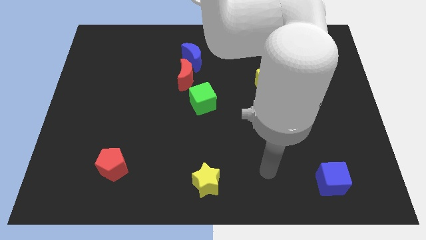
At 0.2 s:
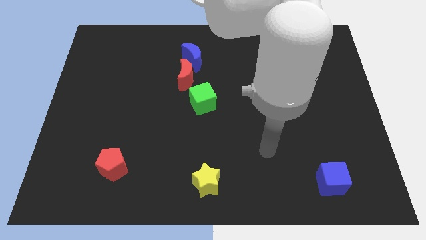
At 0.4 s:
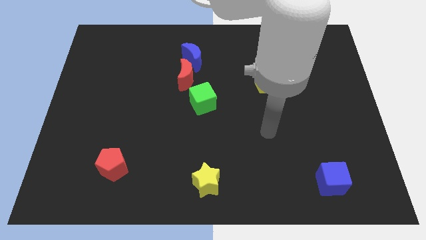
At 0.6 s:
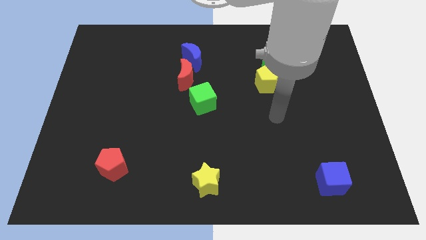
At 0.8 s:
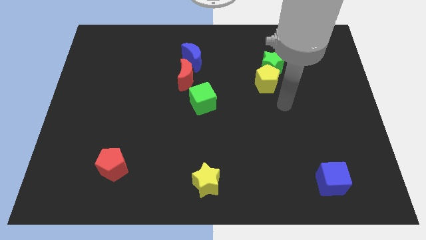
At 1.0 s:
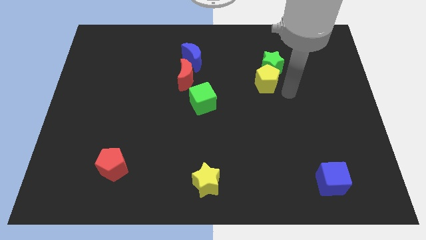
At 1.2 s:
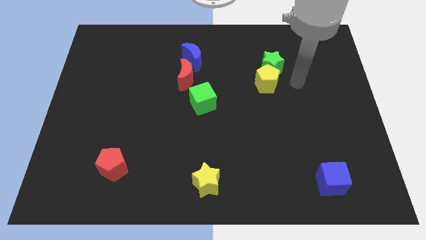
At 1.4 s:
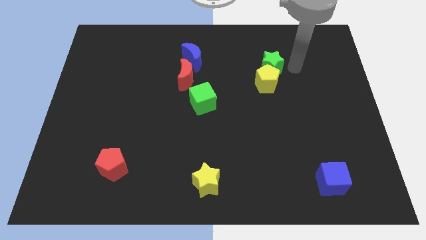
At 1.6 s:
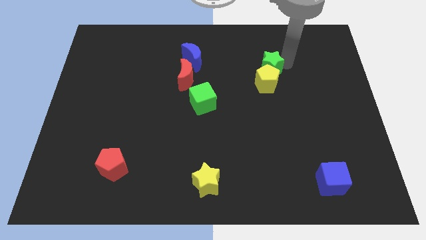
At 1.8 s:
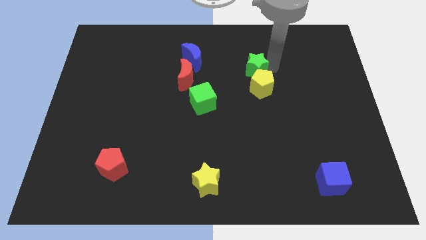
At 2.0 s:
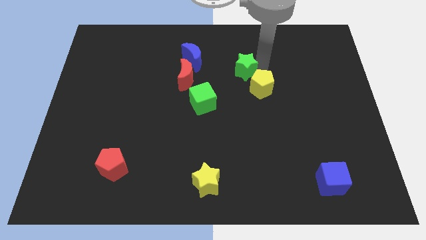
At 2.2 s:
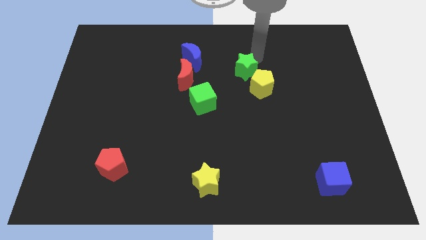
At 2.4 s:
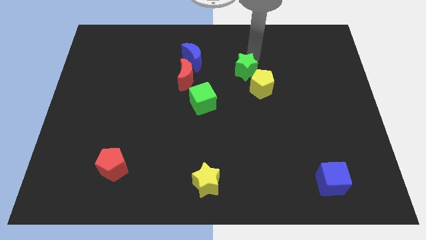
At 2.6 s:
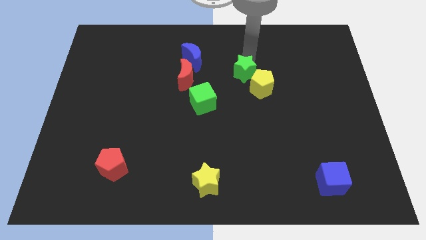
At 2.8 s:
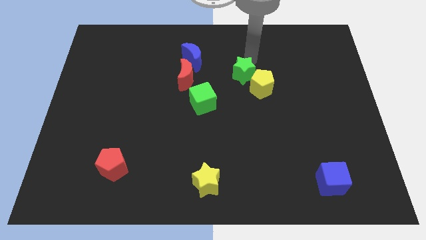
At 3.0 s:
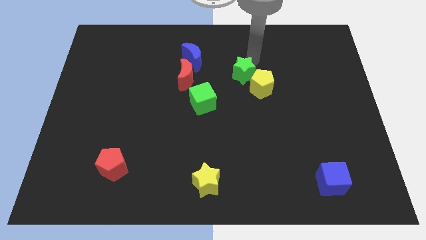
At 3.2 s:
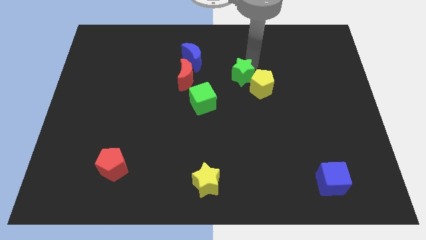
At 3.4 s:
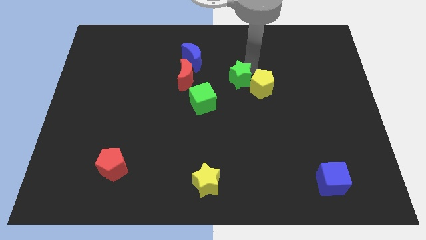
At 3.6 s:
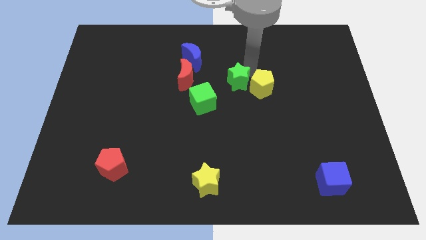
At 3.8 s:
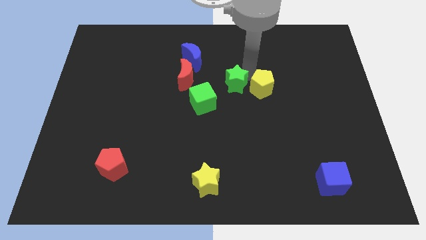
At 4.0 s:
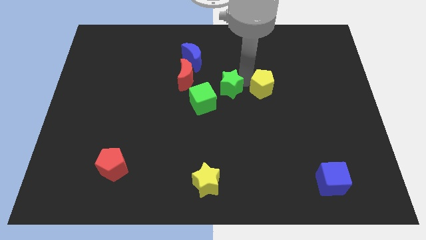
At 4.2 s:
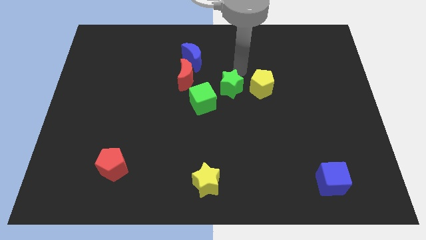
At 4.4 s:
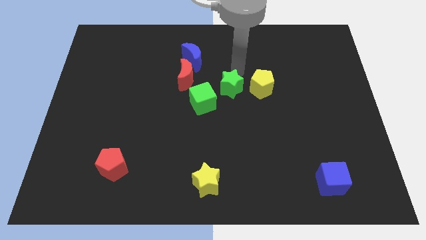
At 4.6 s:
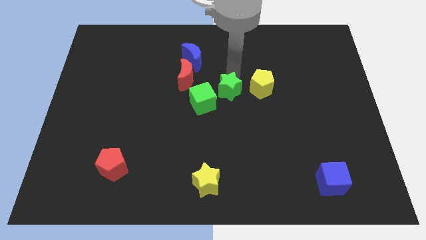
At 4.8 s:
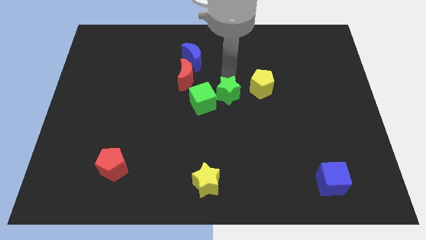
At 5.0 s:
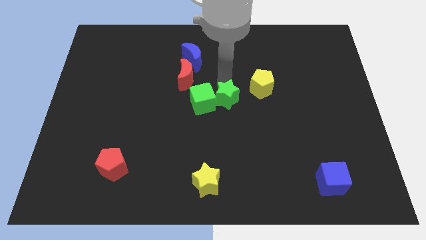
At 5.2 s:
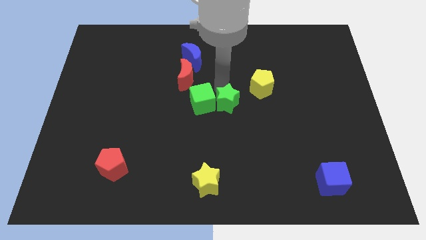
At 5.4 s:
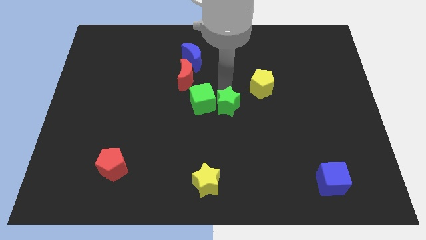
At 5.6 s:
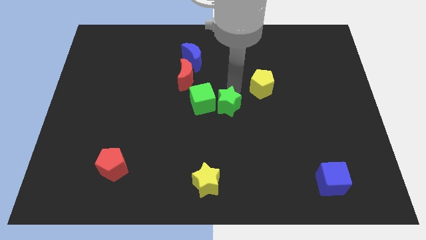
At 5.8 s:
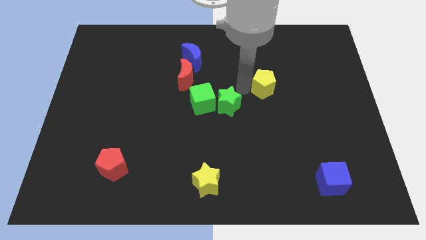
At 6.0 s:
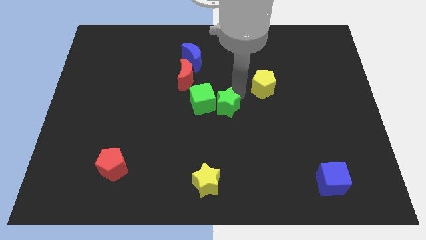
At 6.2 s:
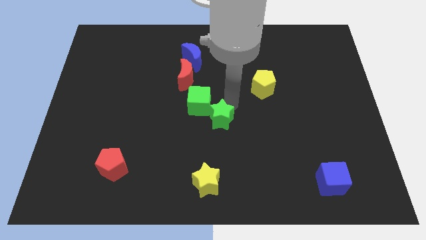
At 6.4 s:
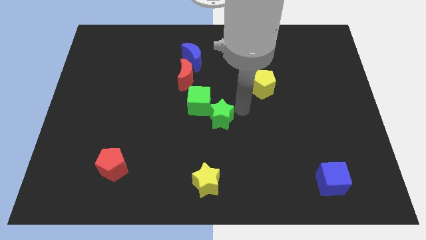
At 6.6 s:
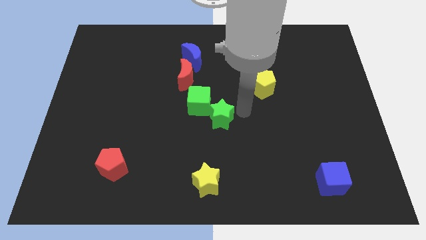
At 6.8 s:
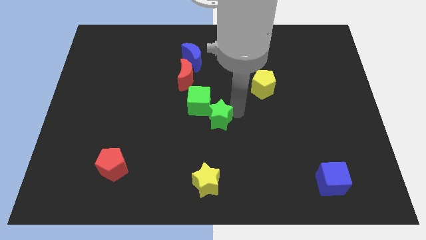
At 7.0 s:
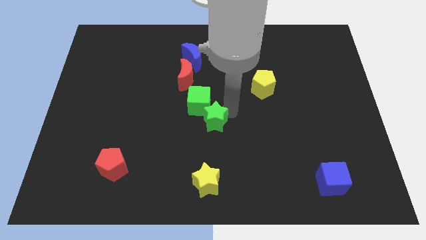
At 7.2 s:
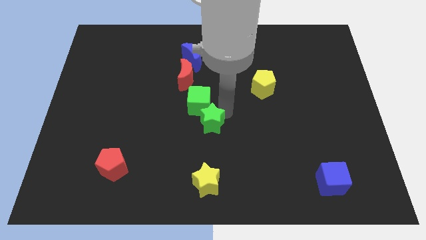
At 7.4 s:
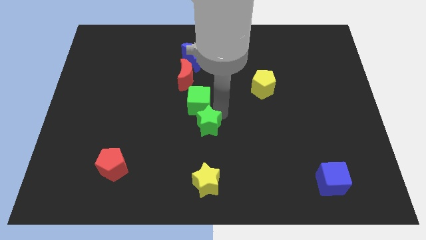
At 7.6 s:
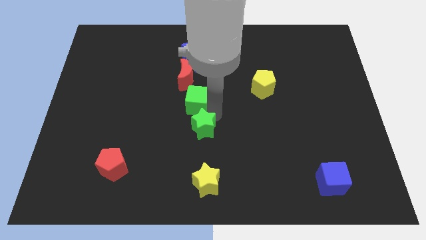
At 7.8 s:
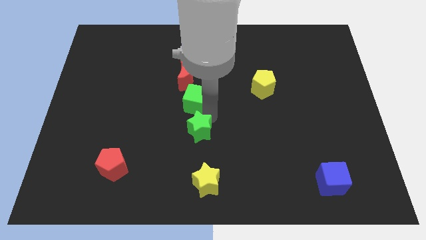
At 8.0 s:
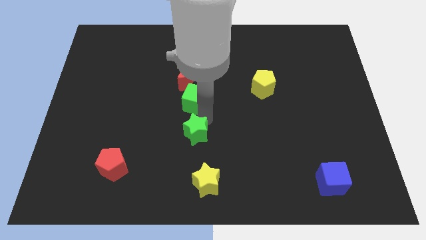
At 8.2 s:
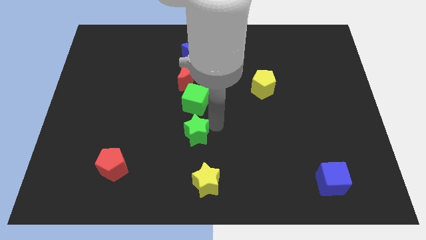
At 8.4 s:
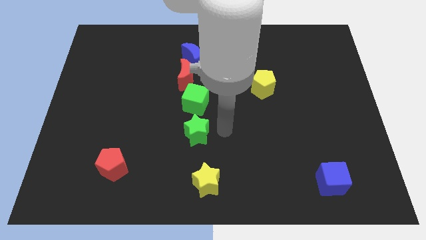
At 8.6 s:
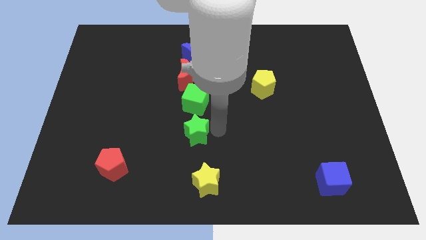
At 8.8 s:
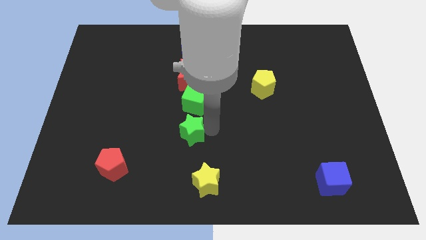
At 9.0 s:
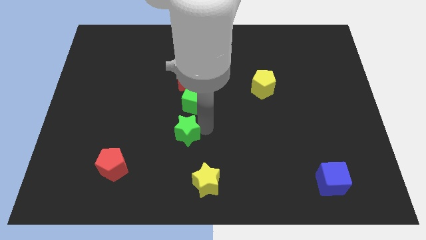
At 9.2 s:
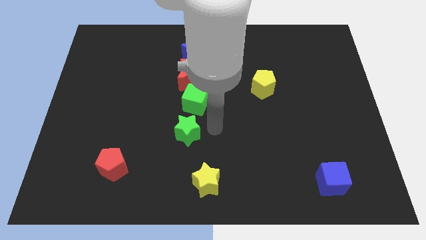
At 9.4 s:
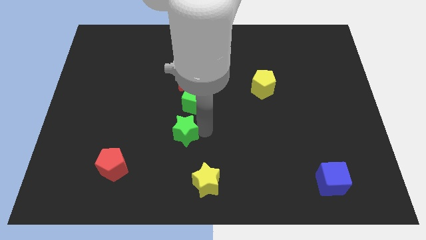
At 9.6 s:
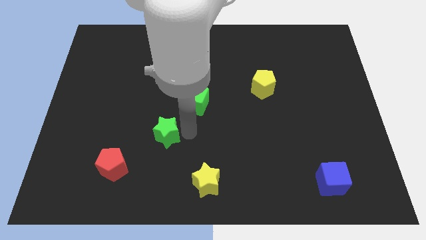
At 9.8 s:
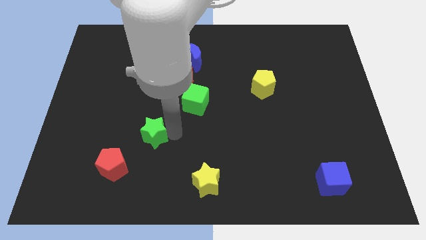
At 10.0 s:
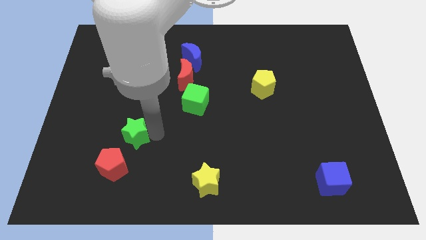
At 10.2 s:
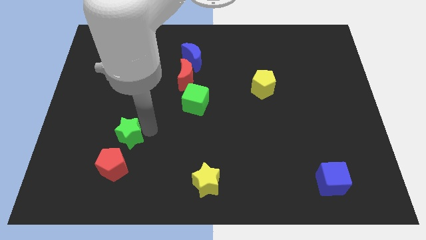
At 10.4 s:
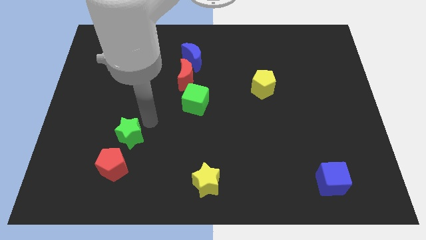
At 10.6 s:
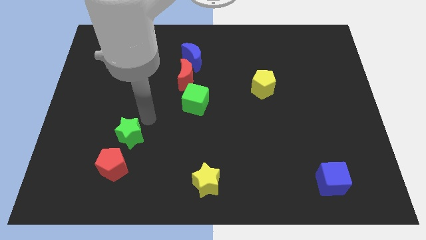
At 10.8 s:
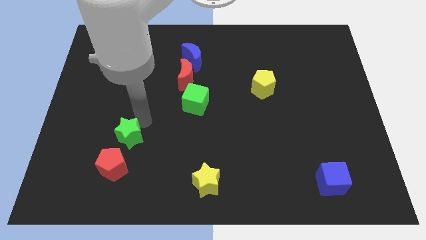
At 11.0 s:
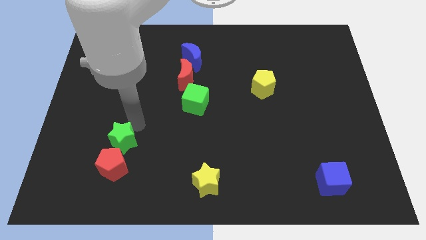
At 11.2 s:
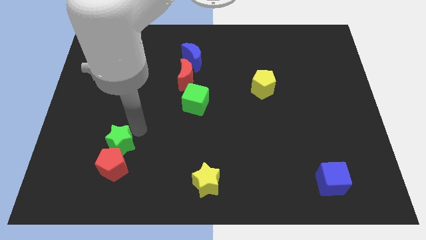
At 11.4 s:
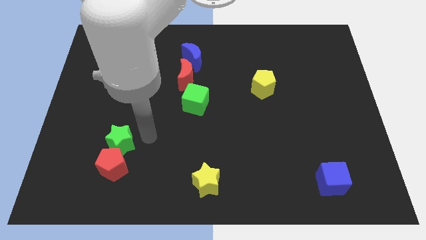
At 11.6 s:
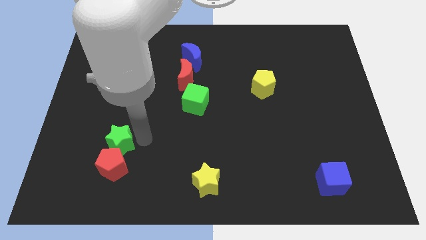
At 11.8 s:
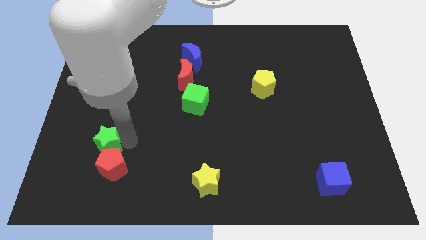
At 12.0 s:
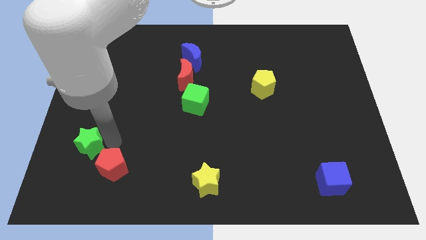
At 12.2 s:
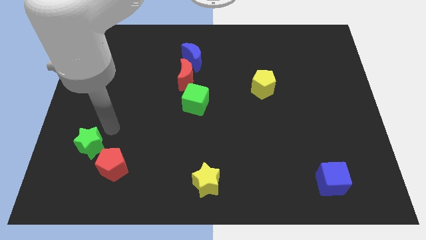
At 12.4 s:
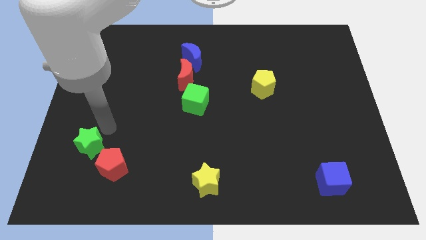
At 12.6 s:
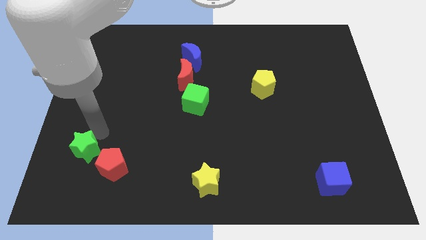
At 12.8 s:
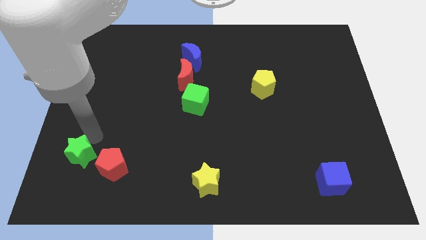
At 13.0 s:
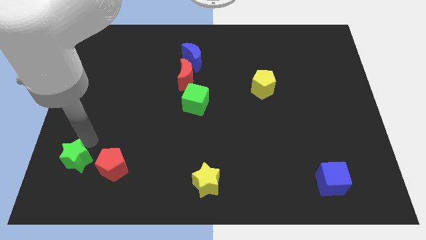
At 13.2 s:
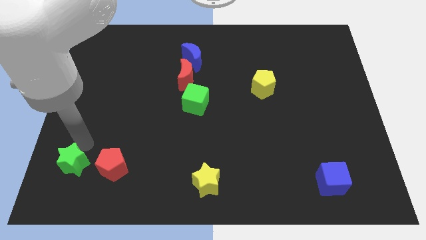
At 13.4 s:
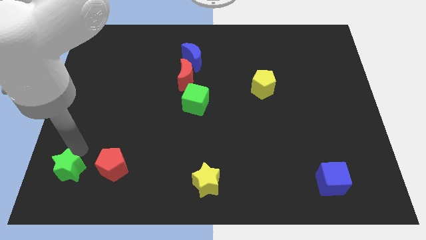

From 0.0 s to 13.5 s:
put the green star to the bottom left
